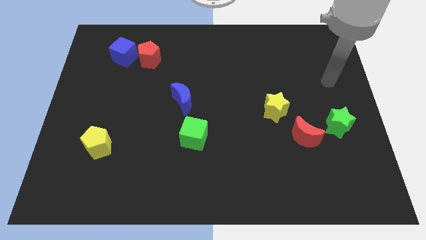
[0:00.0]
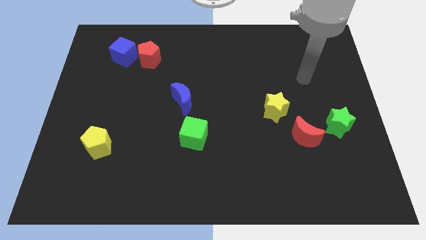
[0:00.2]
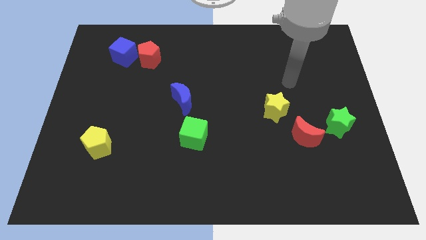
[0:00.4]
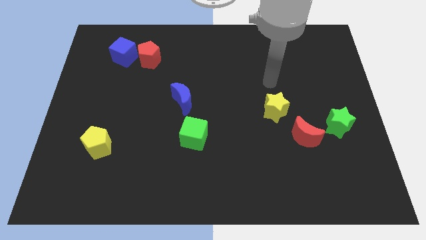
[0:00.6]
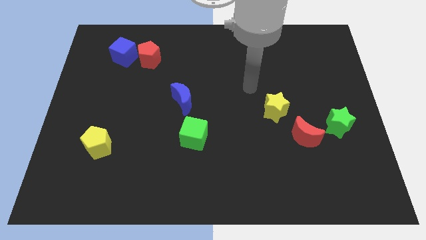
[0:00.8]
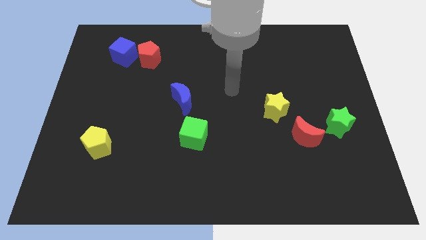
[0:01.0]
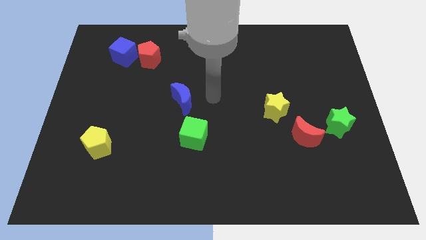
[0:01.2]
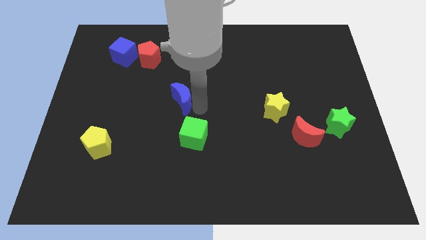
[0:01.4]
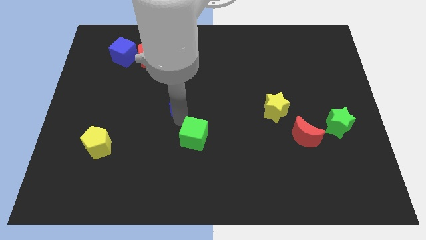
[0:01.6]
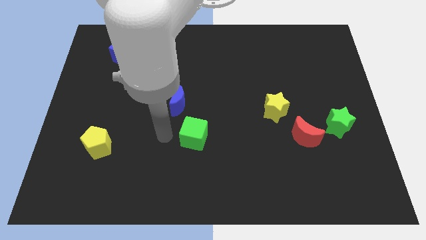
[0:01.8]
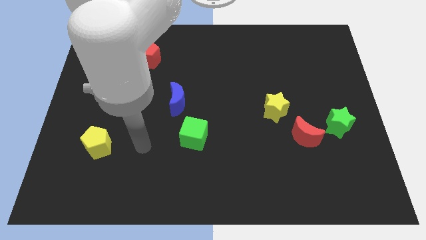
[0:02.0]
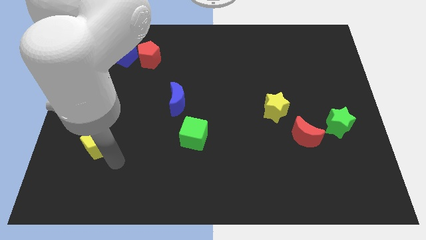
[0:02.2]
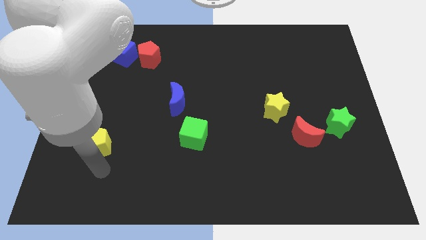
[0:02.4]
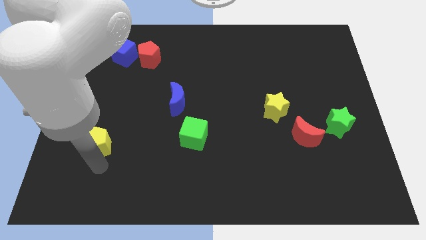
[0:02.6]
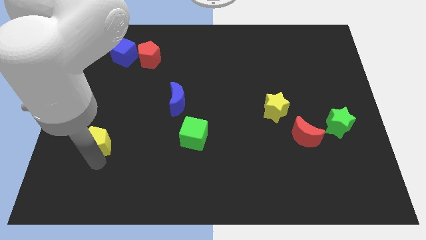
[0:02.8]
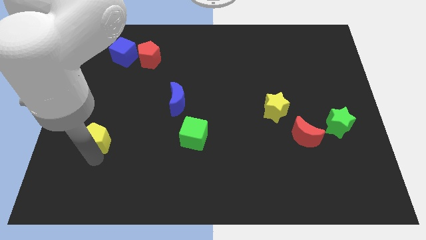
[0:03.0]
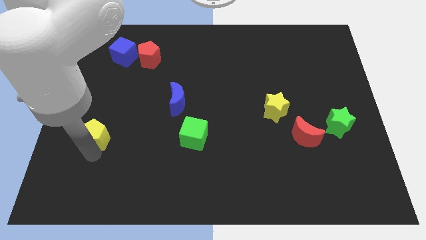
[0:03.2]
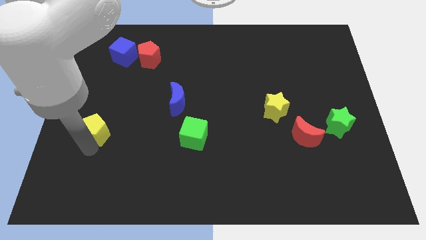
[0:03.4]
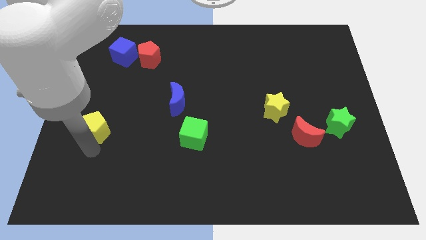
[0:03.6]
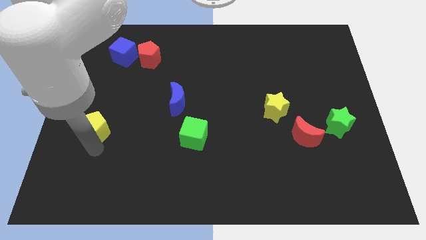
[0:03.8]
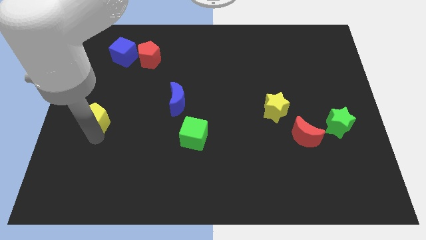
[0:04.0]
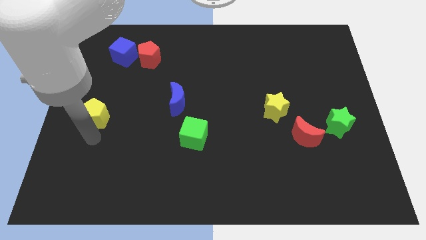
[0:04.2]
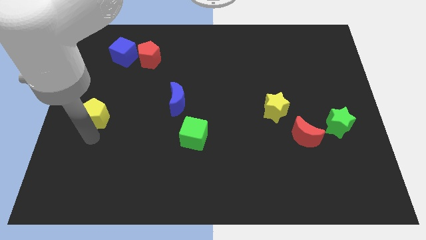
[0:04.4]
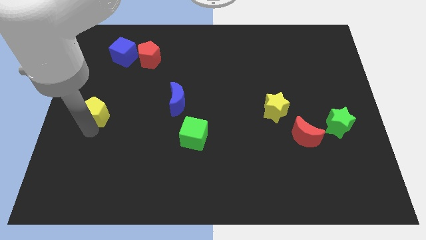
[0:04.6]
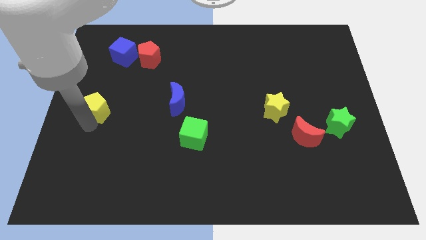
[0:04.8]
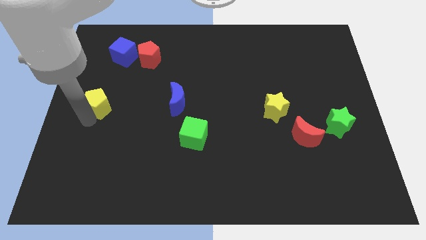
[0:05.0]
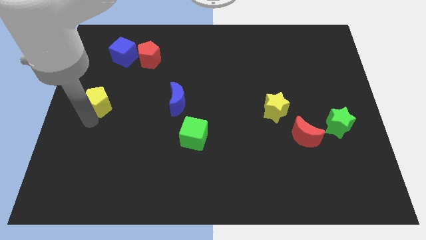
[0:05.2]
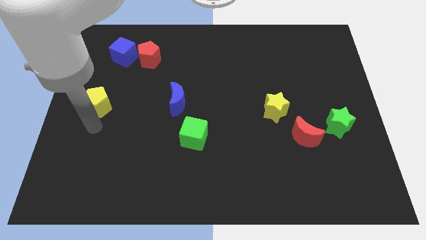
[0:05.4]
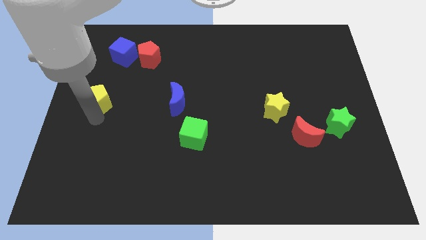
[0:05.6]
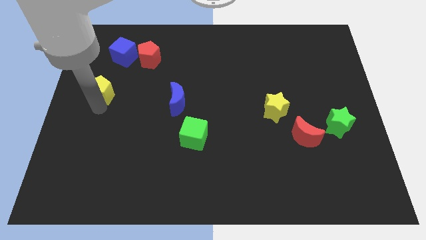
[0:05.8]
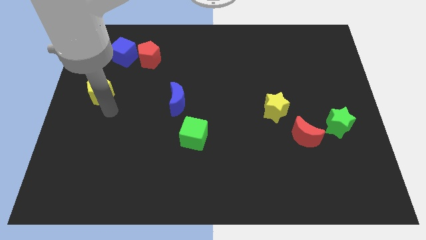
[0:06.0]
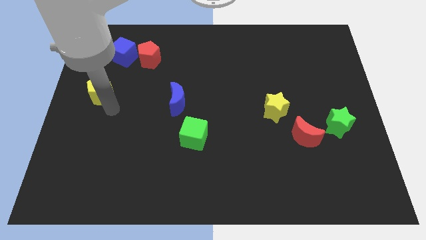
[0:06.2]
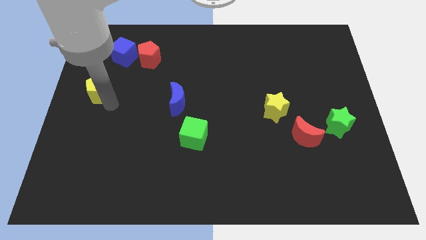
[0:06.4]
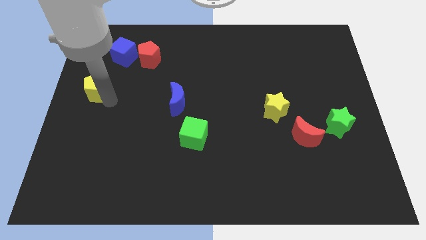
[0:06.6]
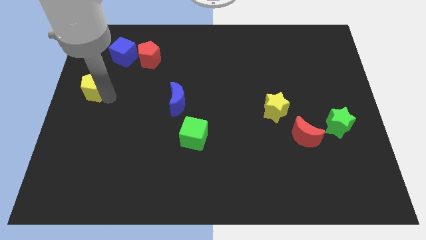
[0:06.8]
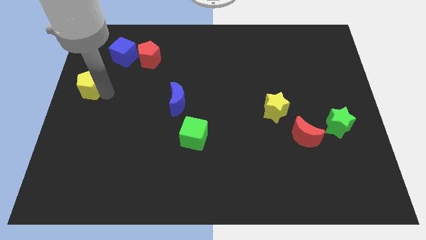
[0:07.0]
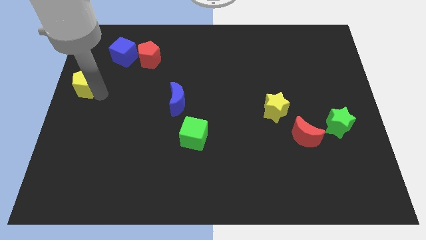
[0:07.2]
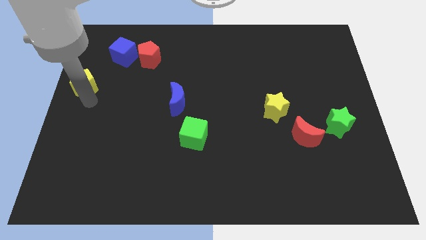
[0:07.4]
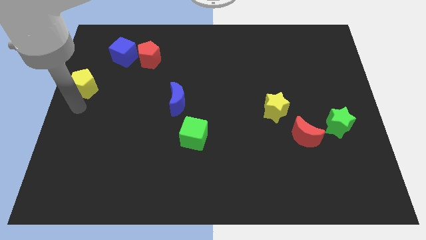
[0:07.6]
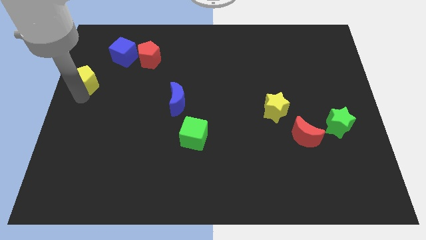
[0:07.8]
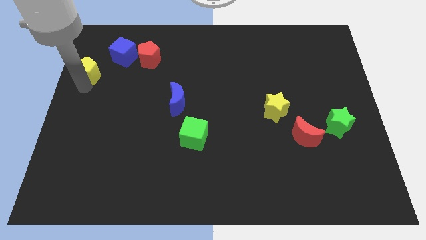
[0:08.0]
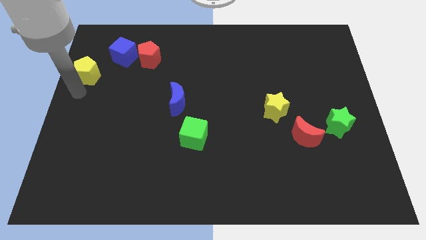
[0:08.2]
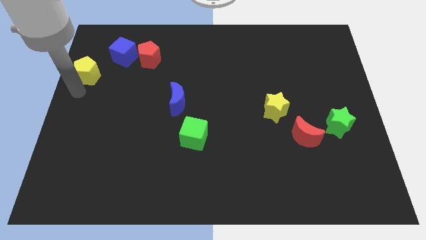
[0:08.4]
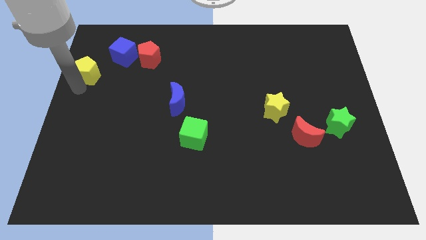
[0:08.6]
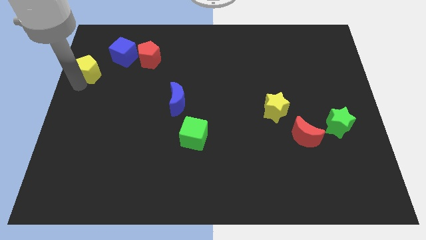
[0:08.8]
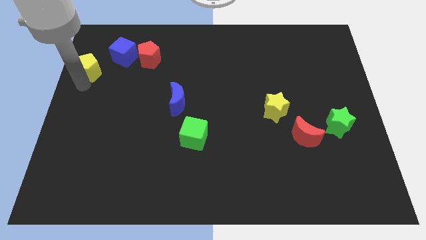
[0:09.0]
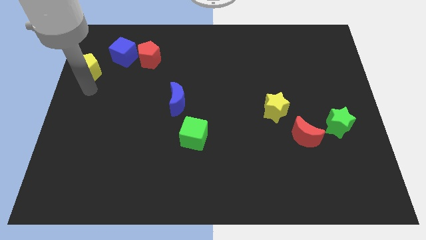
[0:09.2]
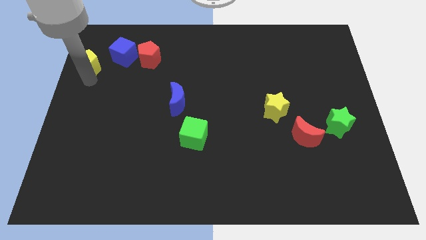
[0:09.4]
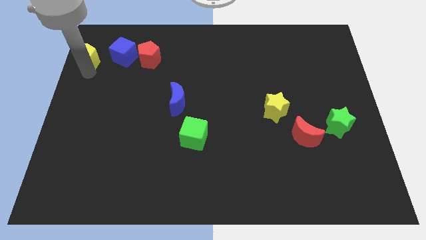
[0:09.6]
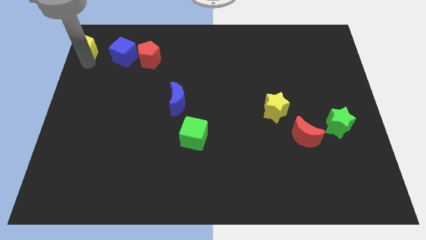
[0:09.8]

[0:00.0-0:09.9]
slide the yellow pentagon to the top left corner
